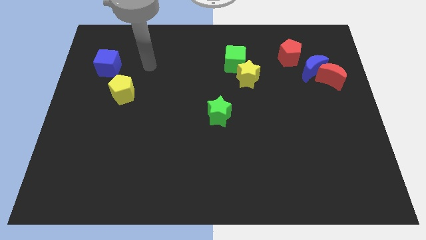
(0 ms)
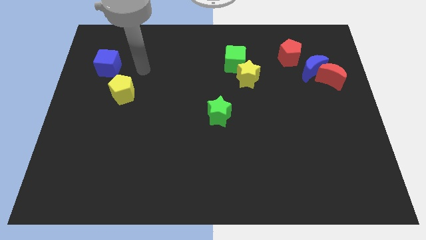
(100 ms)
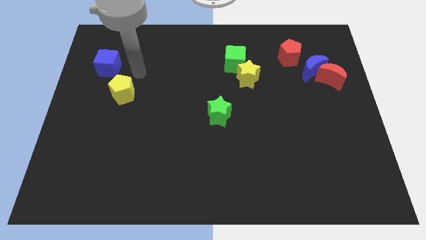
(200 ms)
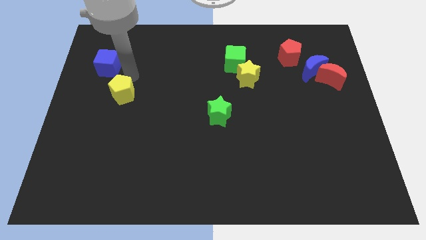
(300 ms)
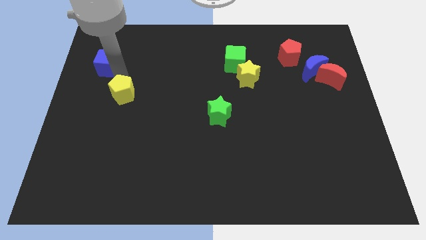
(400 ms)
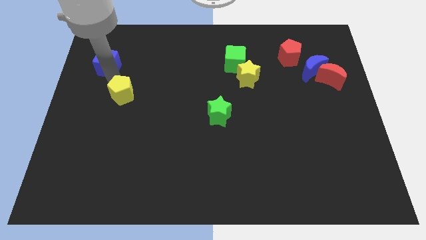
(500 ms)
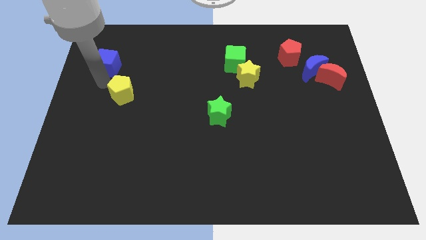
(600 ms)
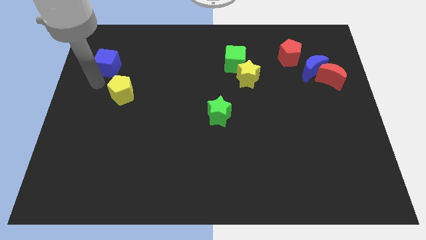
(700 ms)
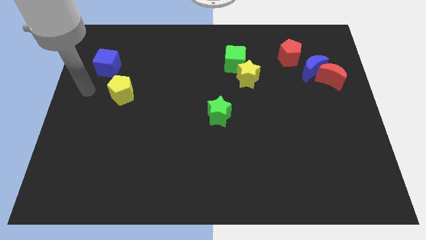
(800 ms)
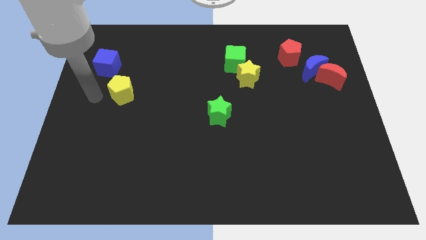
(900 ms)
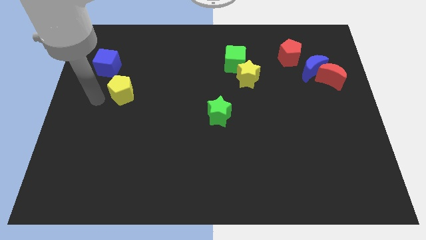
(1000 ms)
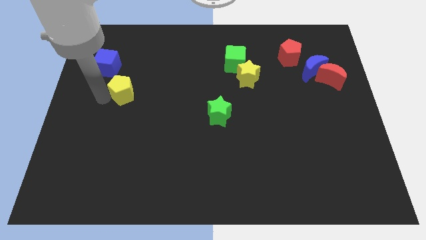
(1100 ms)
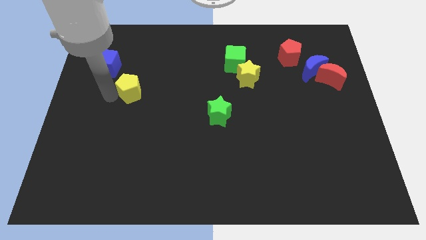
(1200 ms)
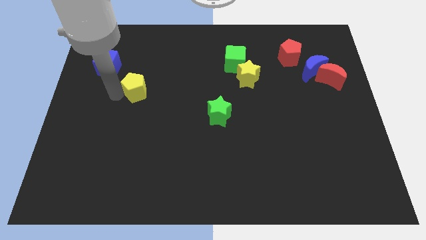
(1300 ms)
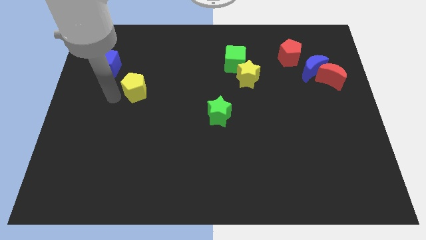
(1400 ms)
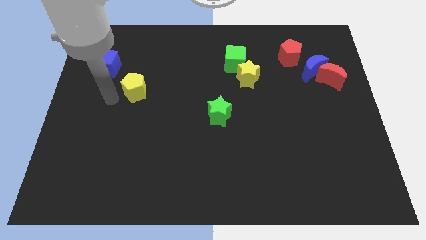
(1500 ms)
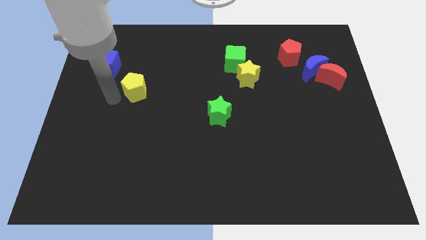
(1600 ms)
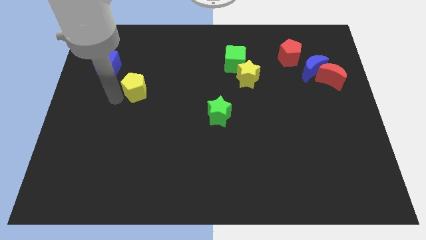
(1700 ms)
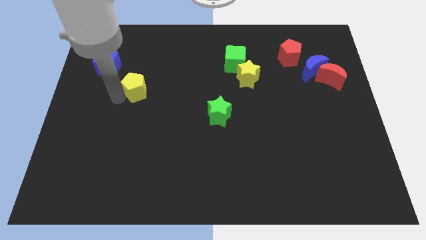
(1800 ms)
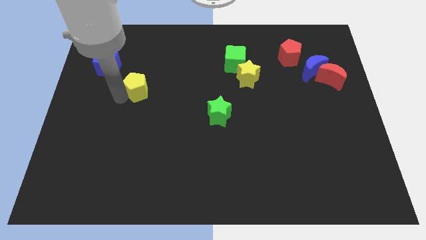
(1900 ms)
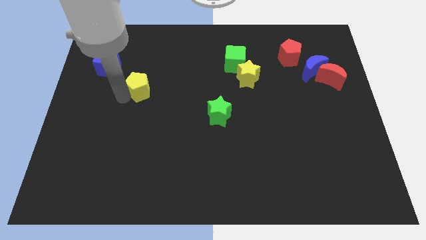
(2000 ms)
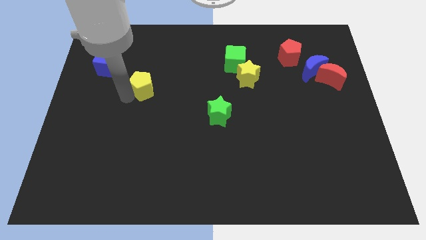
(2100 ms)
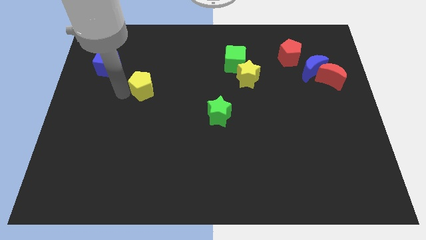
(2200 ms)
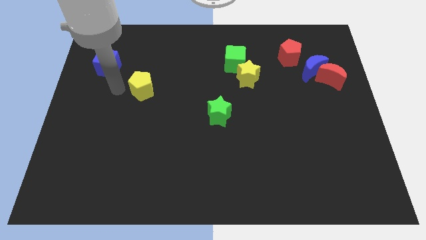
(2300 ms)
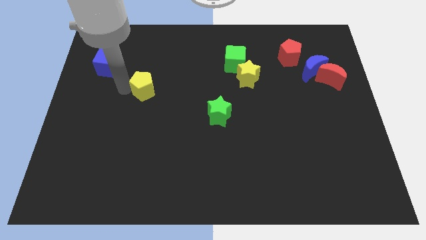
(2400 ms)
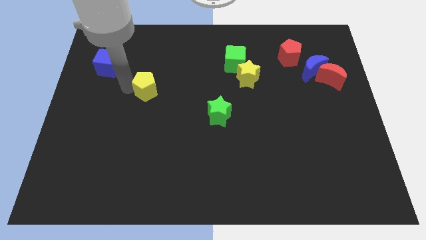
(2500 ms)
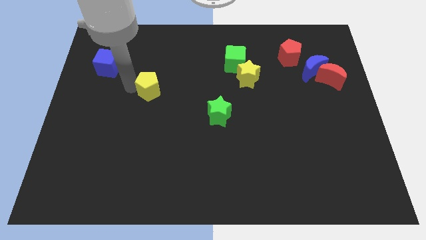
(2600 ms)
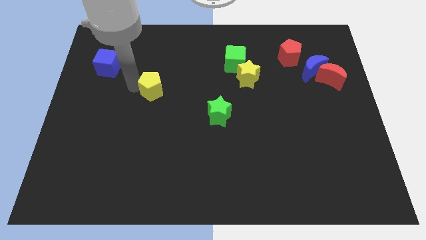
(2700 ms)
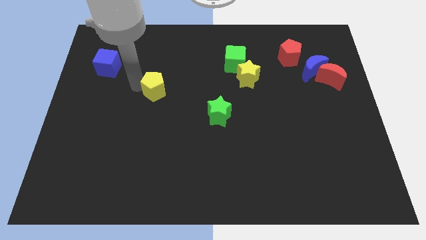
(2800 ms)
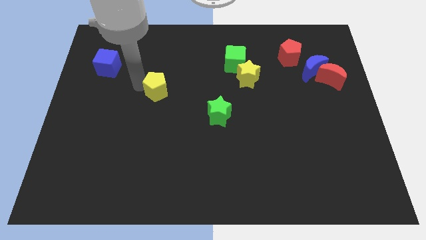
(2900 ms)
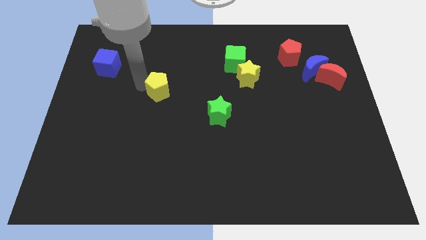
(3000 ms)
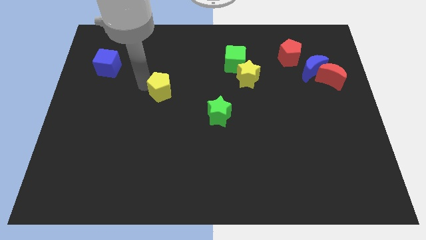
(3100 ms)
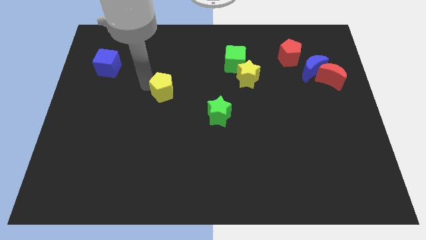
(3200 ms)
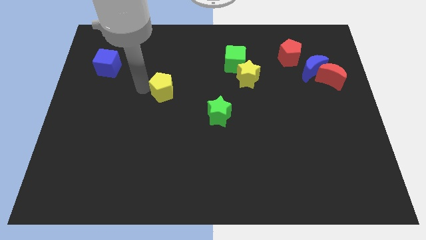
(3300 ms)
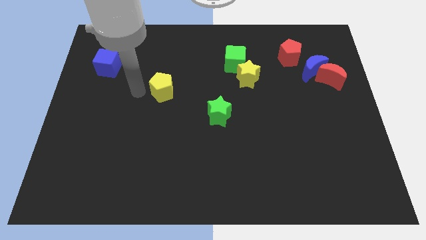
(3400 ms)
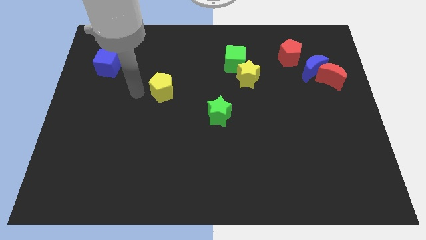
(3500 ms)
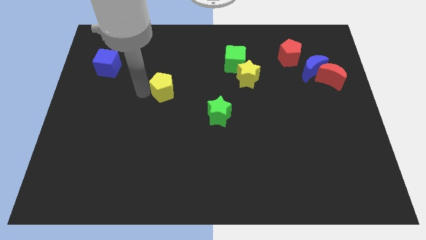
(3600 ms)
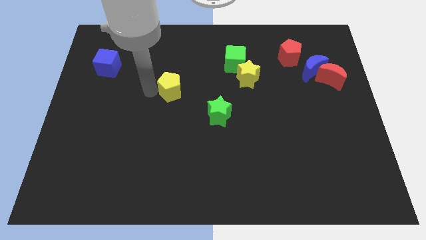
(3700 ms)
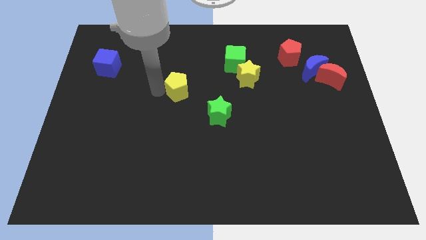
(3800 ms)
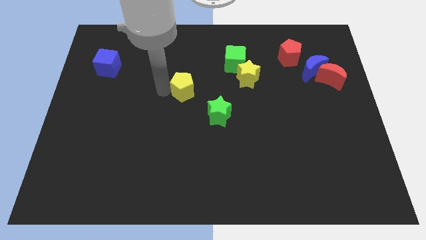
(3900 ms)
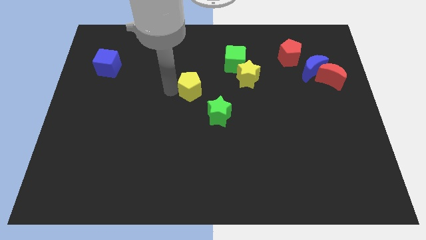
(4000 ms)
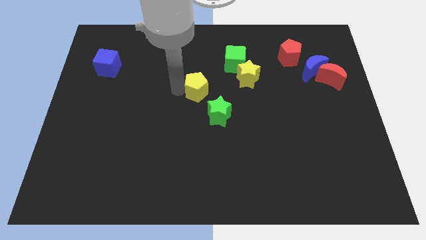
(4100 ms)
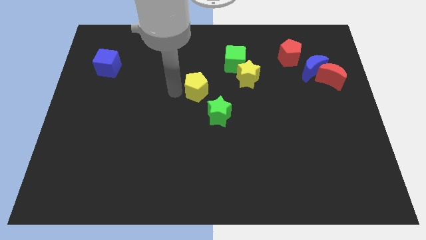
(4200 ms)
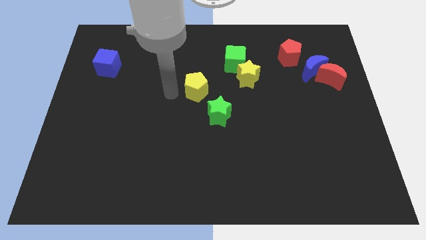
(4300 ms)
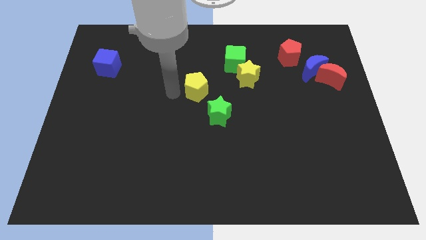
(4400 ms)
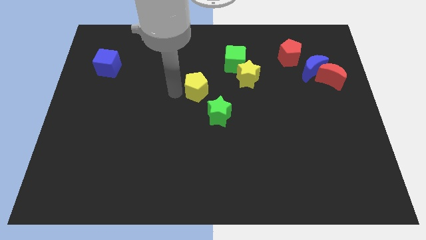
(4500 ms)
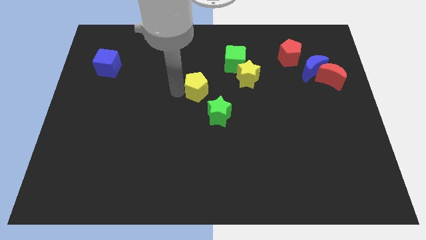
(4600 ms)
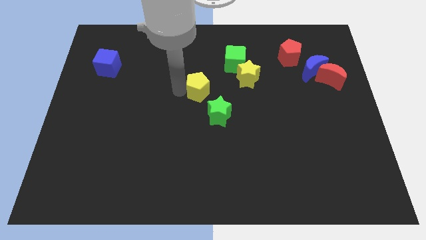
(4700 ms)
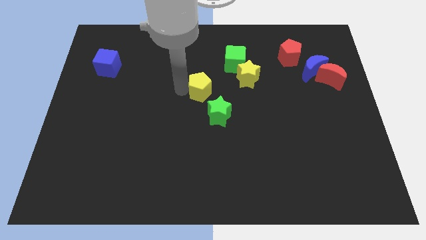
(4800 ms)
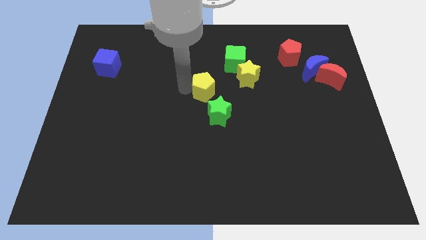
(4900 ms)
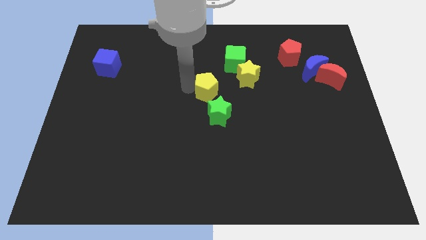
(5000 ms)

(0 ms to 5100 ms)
slide the yellow pentagon right

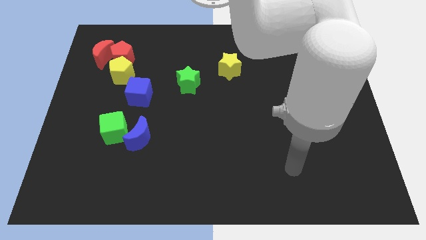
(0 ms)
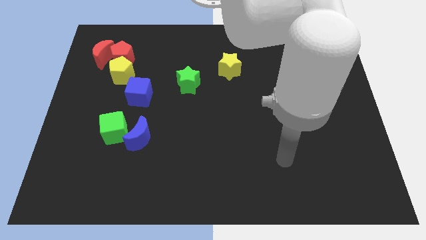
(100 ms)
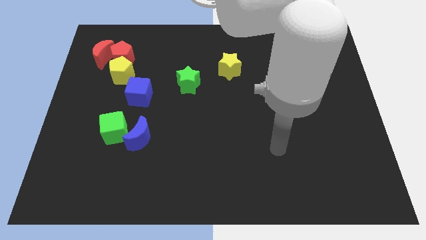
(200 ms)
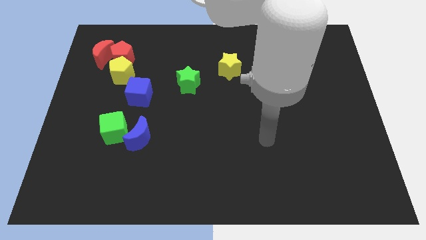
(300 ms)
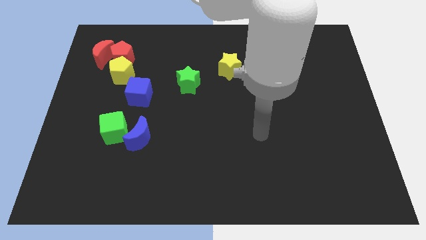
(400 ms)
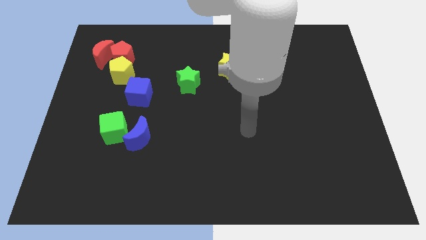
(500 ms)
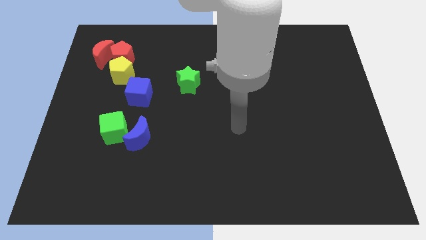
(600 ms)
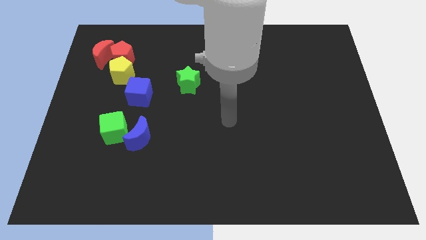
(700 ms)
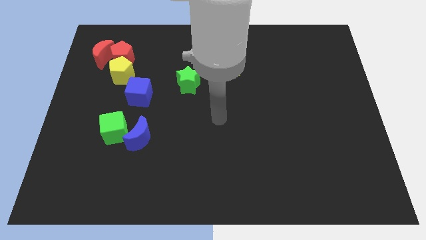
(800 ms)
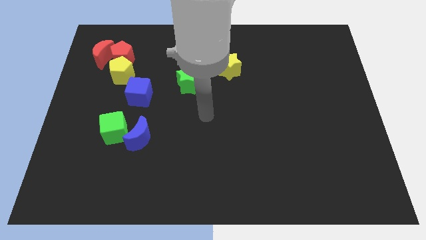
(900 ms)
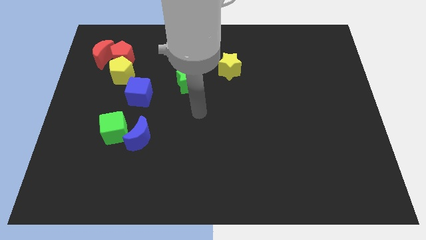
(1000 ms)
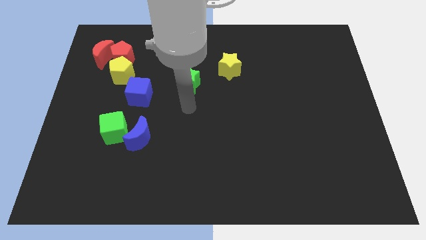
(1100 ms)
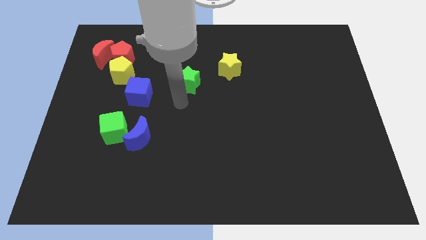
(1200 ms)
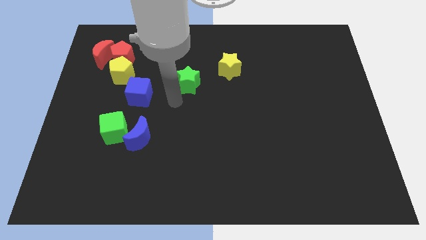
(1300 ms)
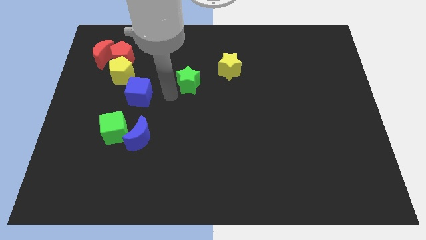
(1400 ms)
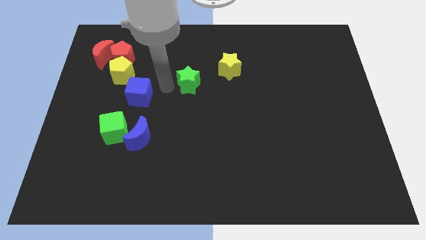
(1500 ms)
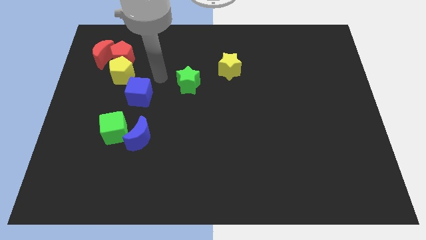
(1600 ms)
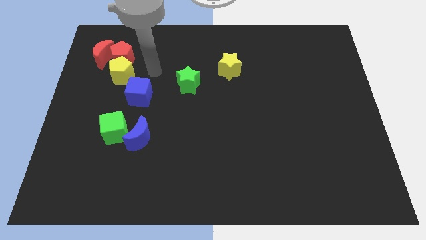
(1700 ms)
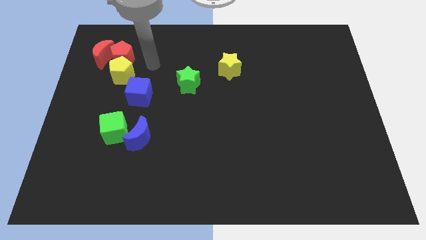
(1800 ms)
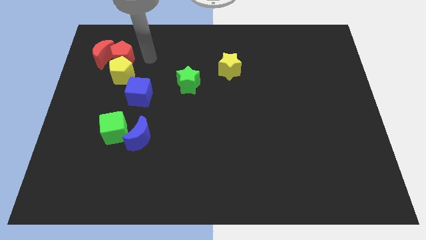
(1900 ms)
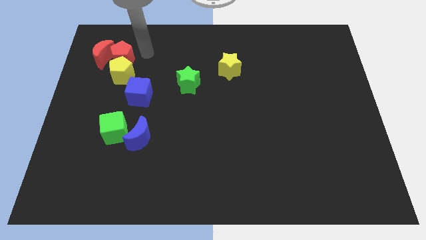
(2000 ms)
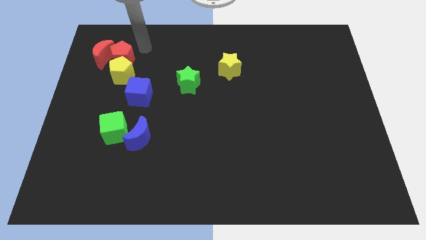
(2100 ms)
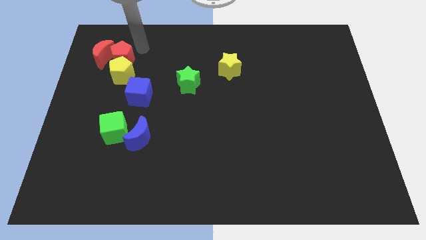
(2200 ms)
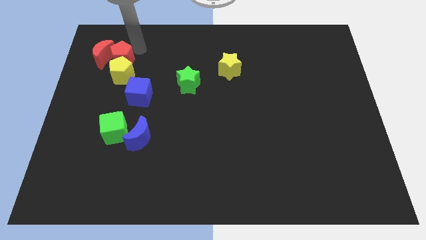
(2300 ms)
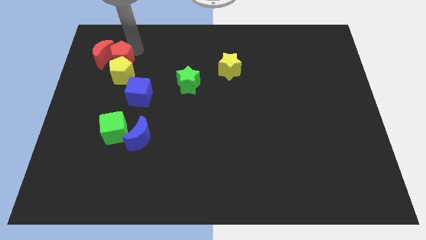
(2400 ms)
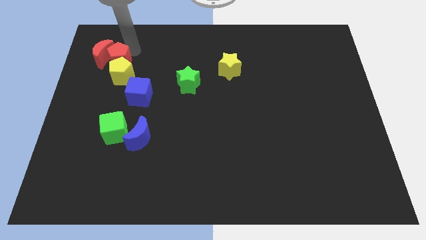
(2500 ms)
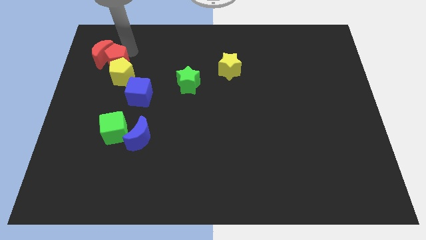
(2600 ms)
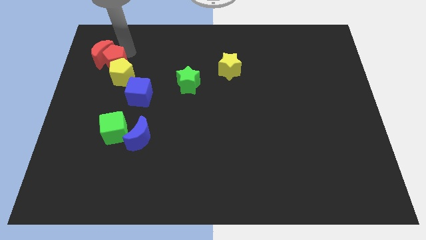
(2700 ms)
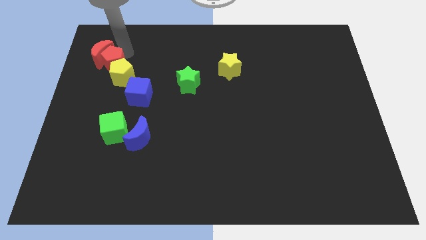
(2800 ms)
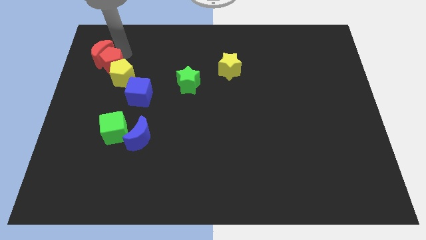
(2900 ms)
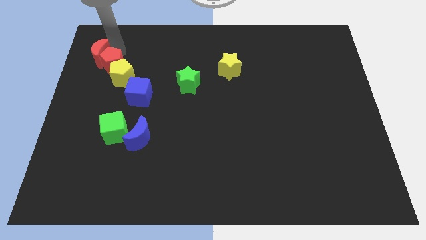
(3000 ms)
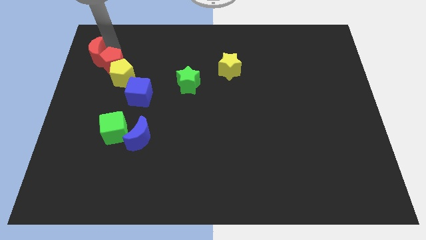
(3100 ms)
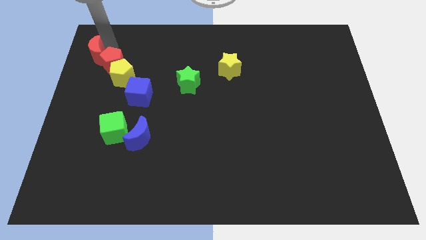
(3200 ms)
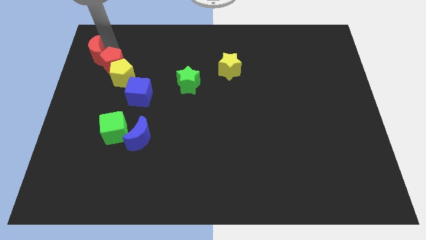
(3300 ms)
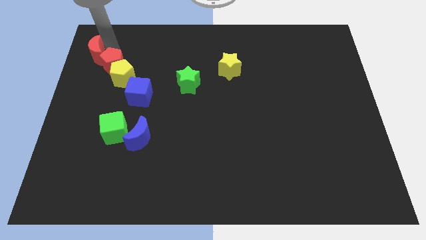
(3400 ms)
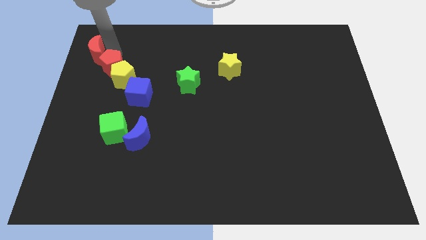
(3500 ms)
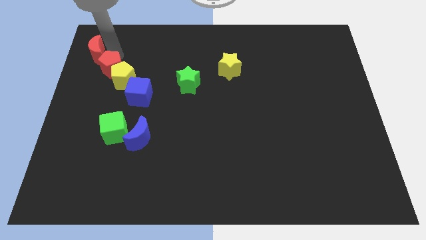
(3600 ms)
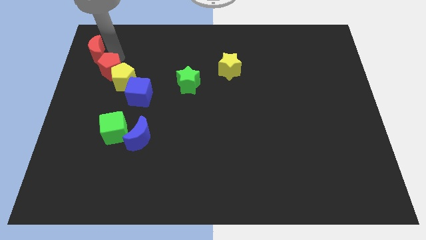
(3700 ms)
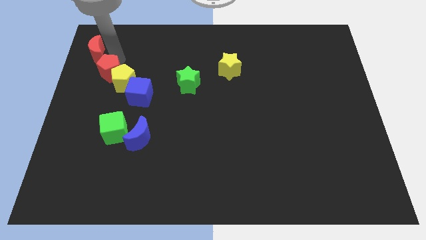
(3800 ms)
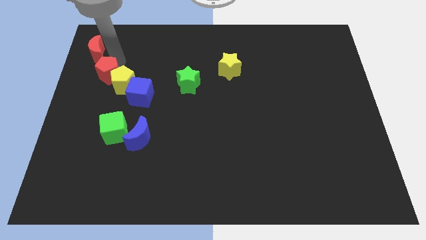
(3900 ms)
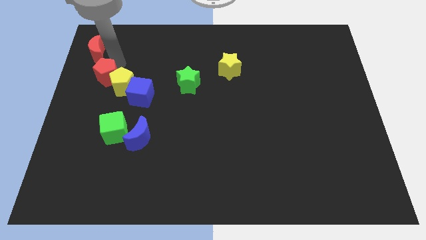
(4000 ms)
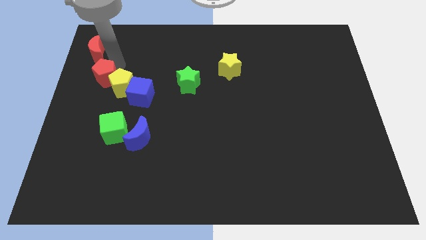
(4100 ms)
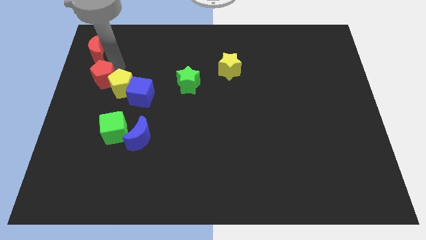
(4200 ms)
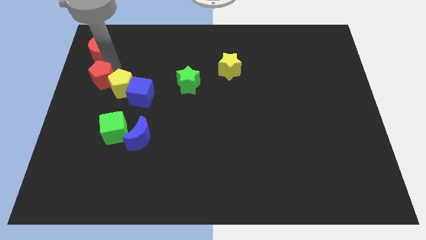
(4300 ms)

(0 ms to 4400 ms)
slightly slide the red pentagon downwards
